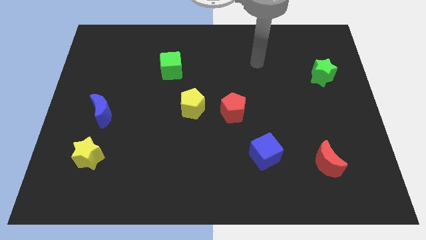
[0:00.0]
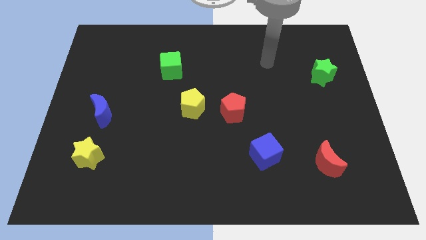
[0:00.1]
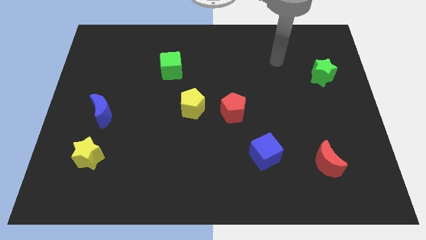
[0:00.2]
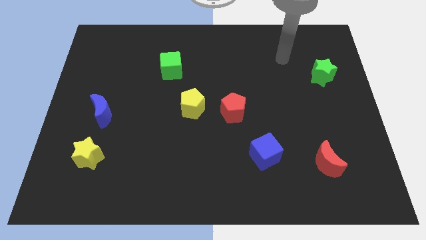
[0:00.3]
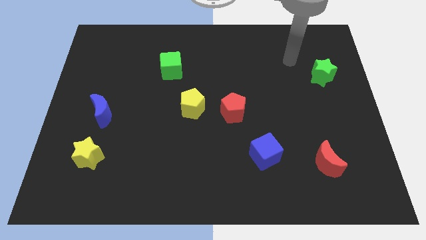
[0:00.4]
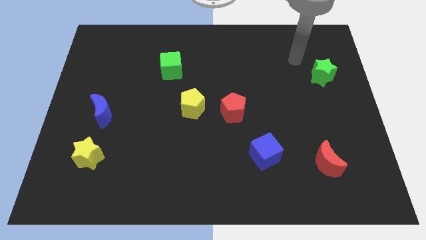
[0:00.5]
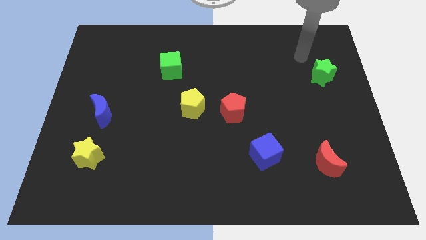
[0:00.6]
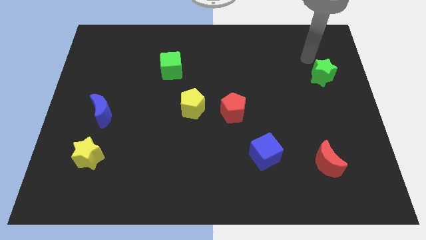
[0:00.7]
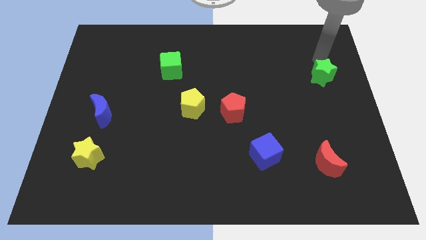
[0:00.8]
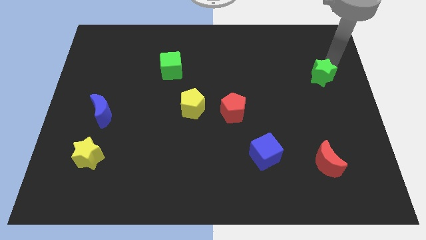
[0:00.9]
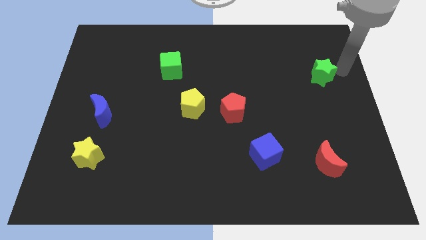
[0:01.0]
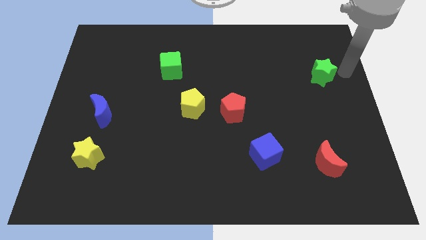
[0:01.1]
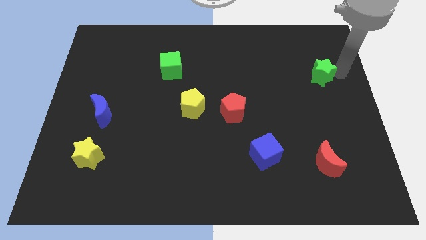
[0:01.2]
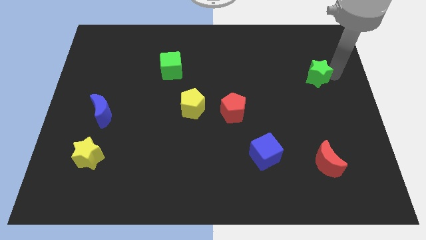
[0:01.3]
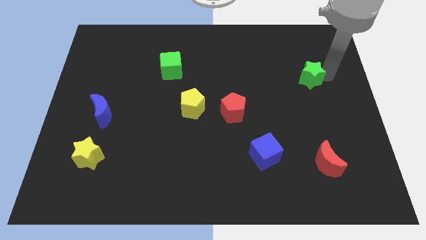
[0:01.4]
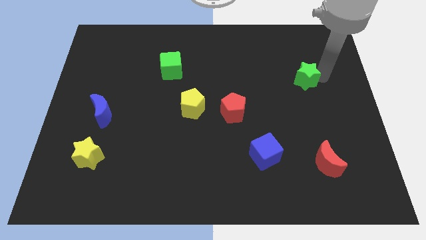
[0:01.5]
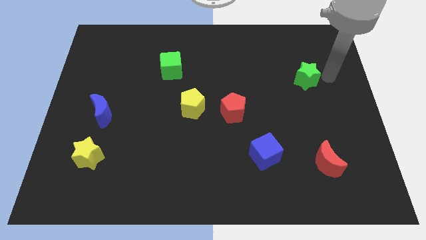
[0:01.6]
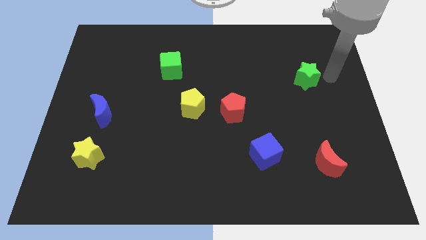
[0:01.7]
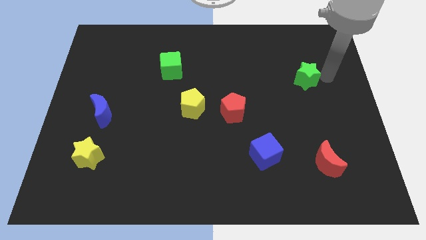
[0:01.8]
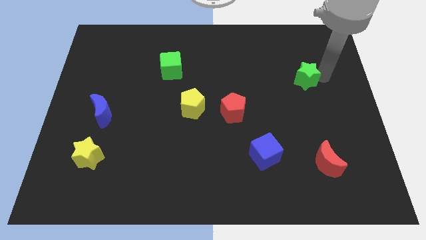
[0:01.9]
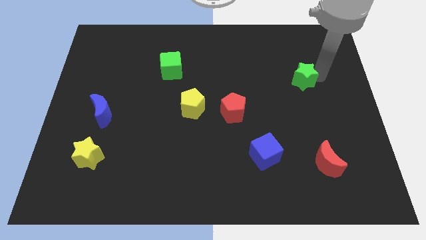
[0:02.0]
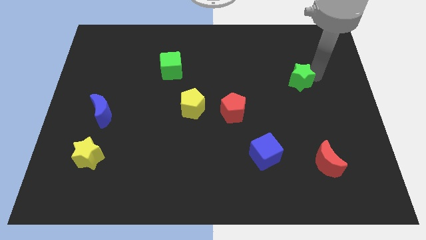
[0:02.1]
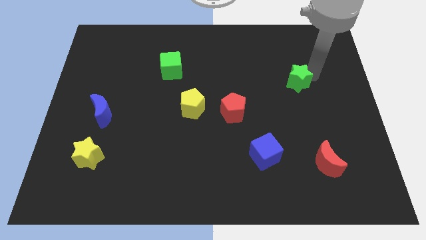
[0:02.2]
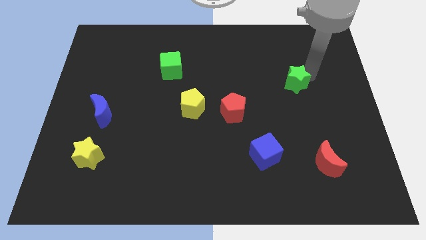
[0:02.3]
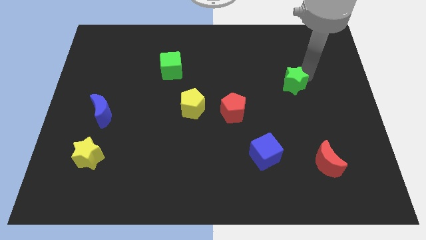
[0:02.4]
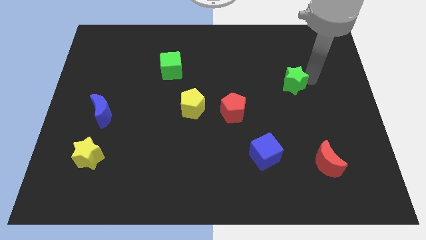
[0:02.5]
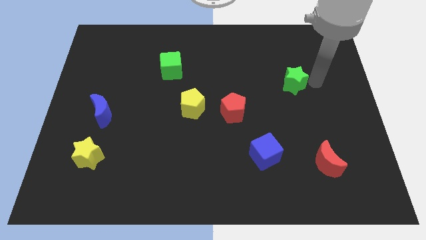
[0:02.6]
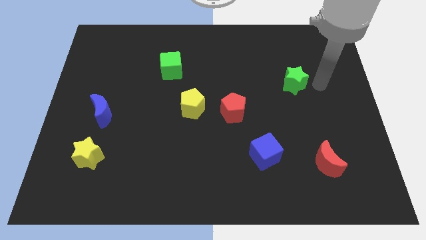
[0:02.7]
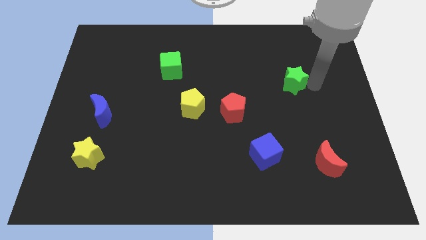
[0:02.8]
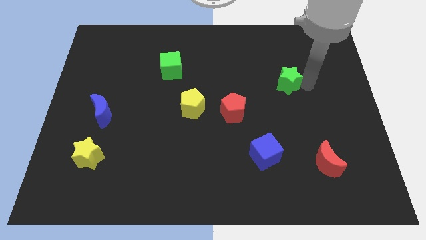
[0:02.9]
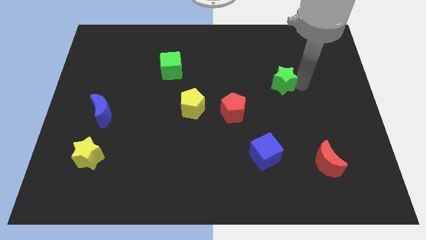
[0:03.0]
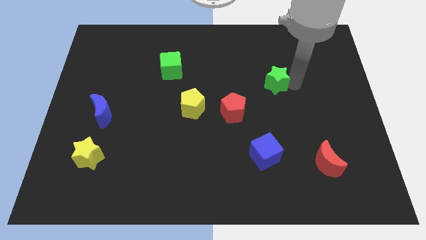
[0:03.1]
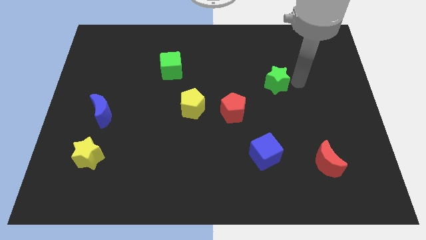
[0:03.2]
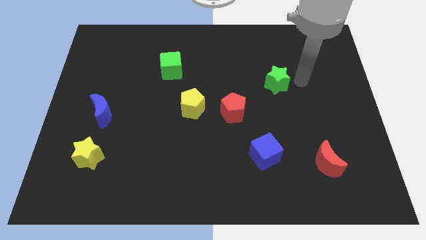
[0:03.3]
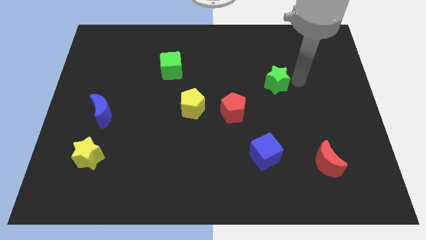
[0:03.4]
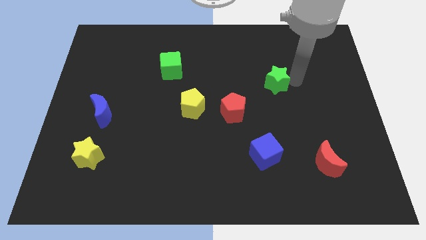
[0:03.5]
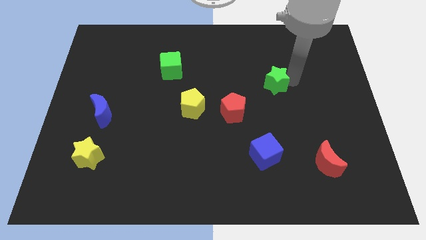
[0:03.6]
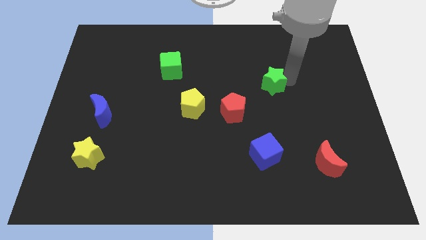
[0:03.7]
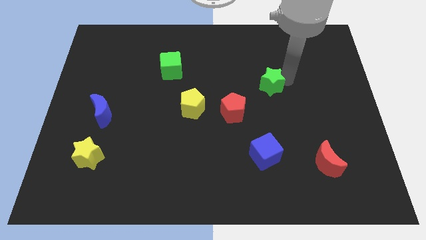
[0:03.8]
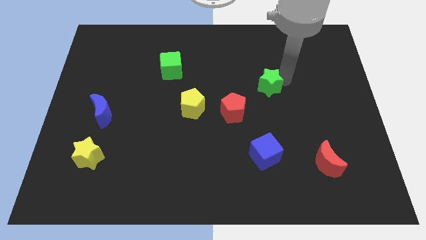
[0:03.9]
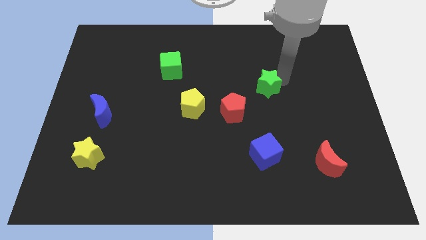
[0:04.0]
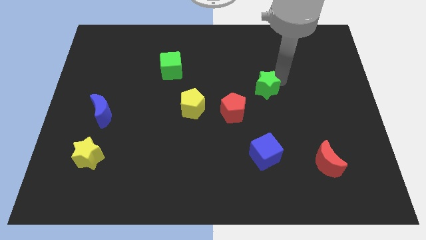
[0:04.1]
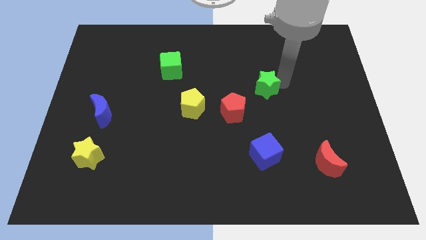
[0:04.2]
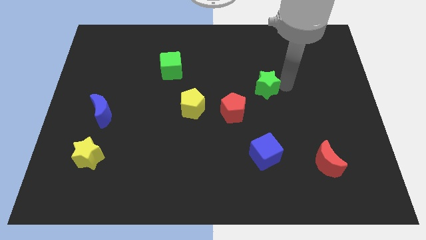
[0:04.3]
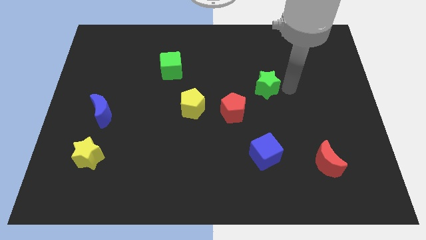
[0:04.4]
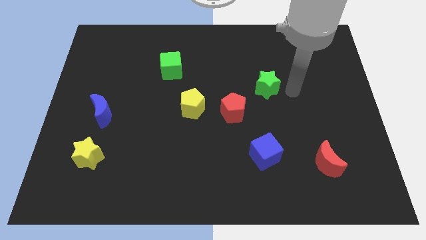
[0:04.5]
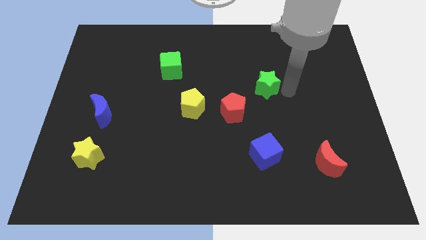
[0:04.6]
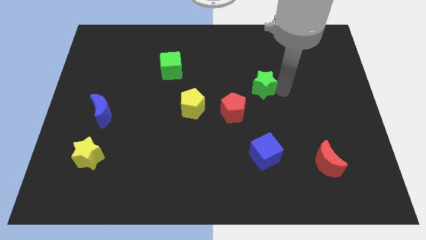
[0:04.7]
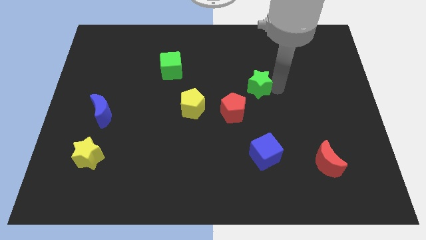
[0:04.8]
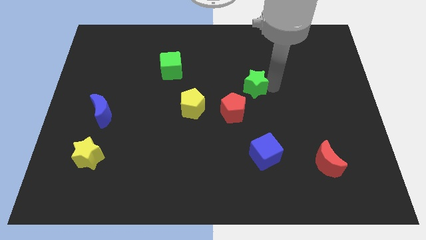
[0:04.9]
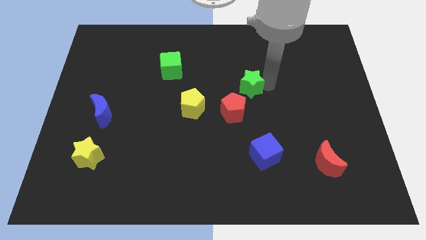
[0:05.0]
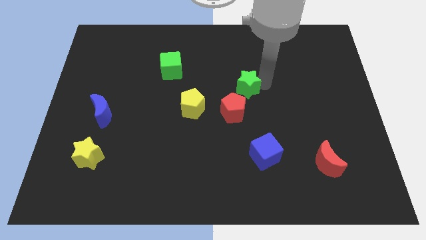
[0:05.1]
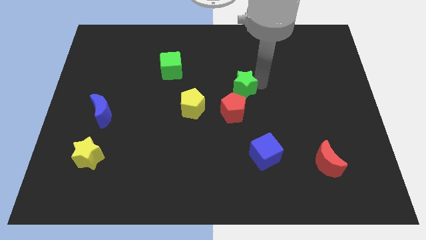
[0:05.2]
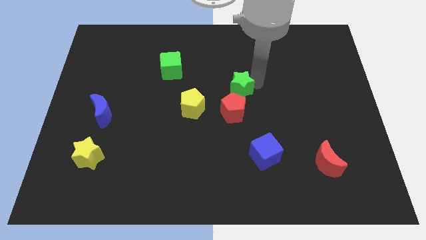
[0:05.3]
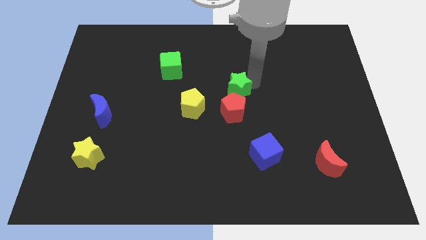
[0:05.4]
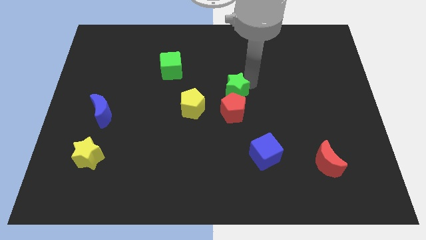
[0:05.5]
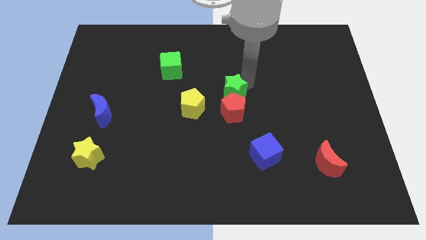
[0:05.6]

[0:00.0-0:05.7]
put the green star to the top left side of the red pentagon

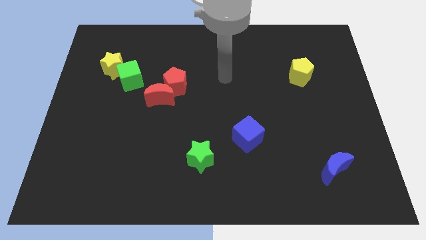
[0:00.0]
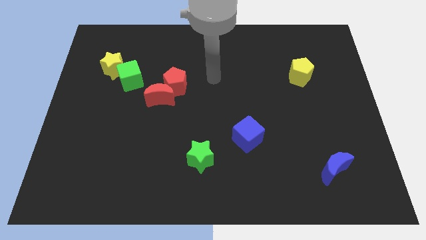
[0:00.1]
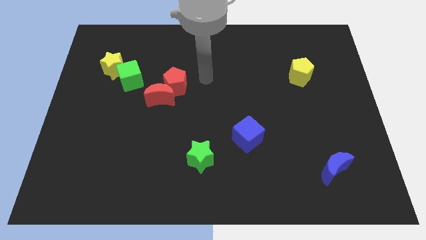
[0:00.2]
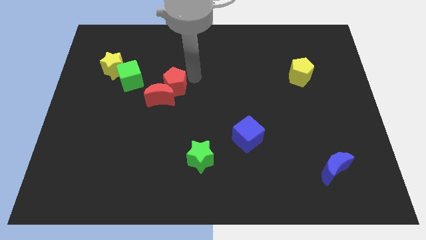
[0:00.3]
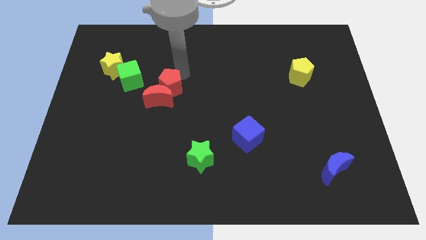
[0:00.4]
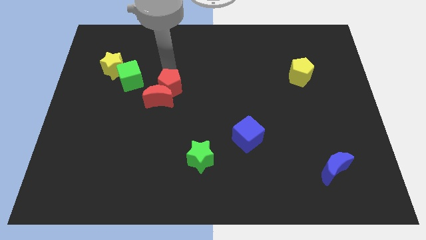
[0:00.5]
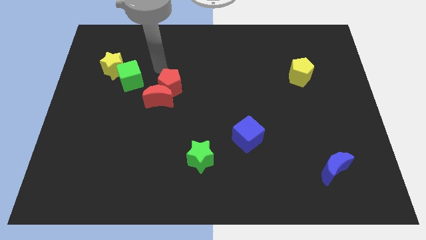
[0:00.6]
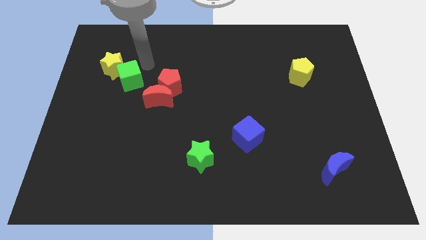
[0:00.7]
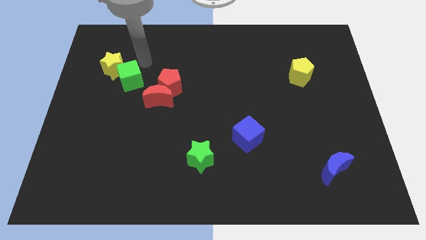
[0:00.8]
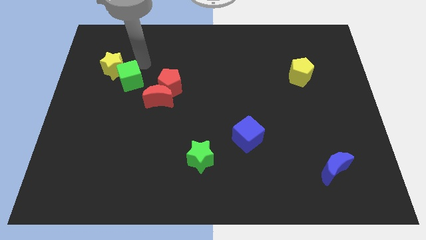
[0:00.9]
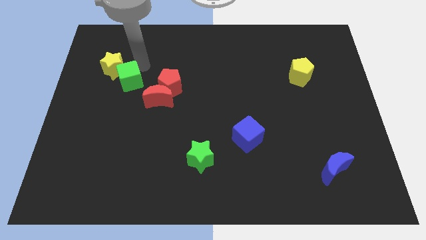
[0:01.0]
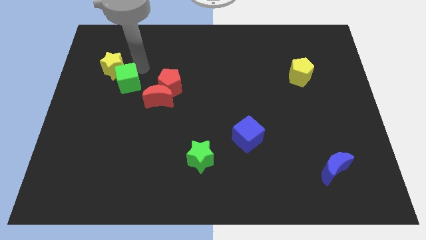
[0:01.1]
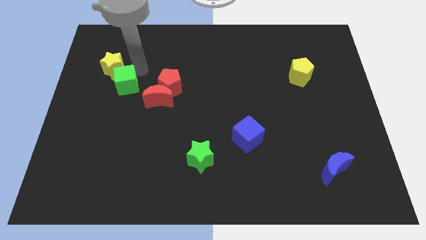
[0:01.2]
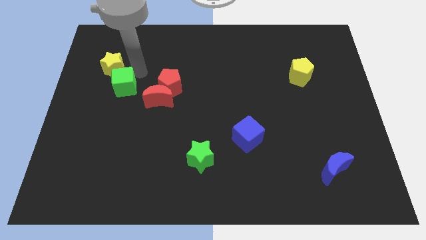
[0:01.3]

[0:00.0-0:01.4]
put the green cube just left of the red moon
